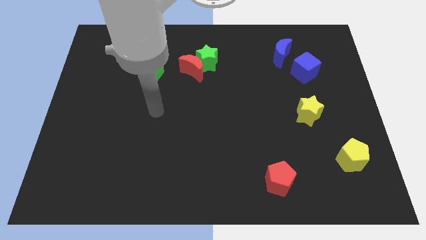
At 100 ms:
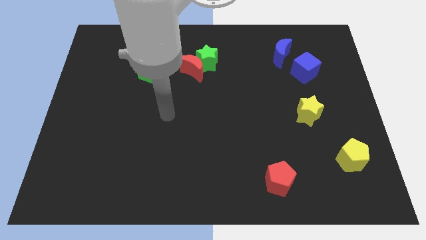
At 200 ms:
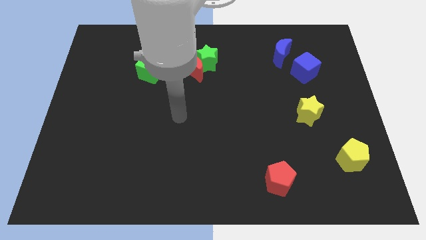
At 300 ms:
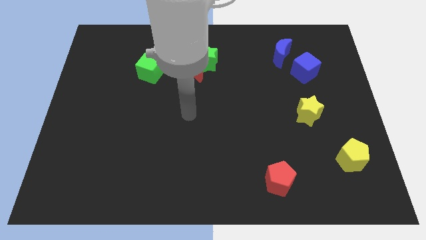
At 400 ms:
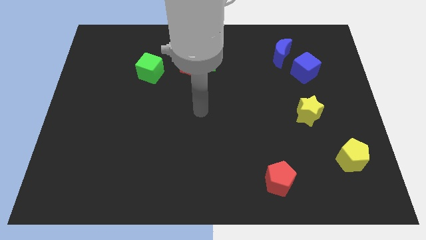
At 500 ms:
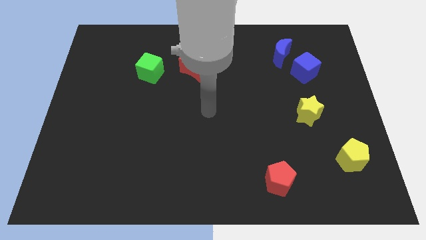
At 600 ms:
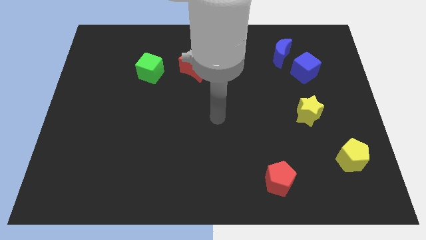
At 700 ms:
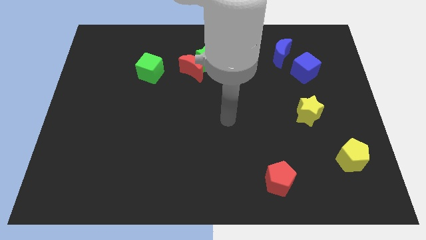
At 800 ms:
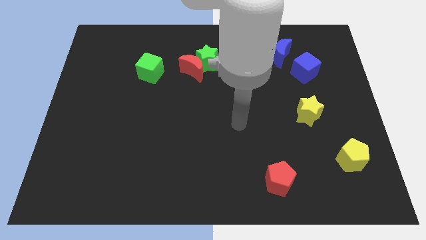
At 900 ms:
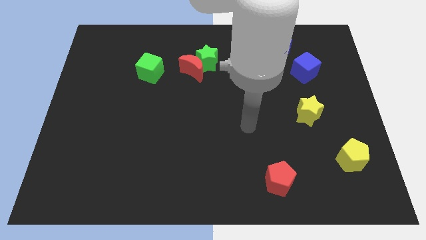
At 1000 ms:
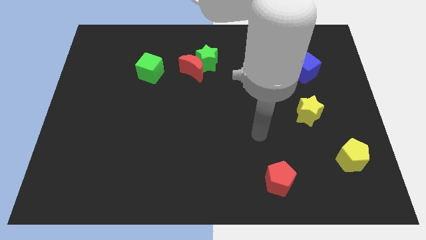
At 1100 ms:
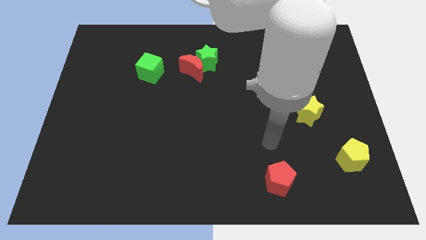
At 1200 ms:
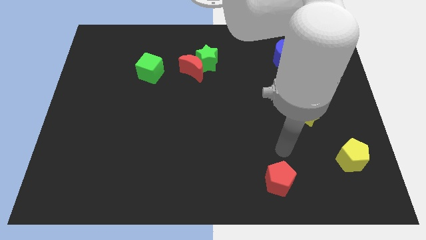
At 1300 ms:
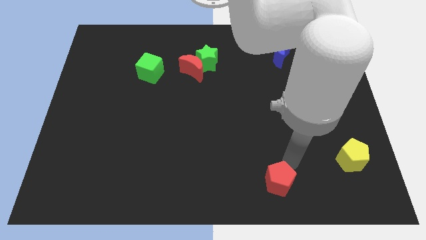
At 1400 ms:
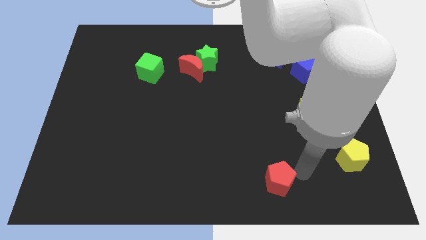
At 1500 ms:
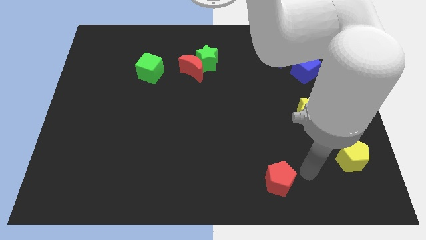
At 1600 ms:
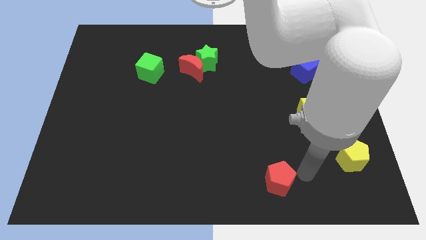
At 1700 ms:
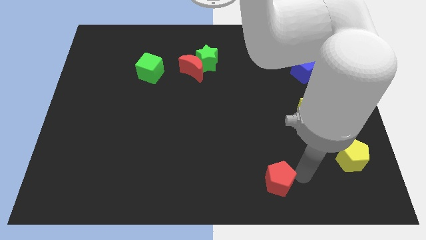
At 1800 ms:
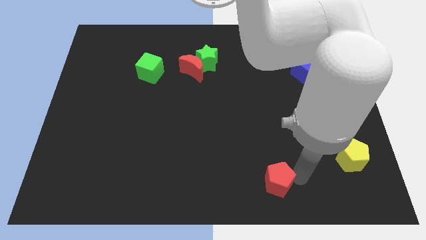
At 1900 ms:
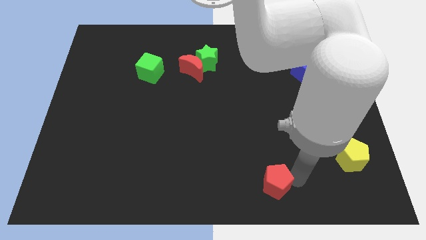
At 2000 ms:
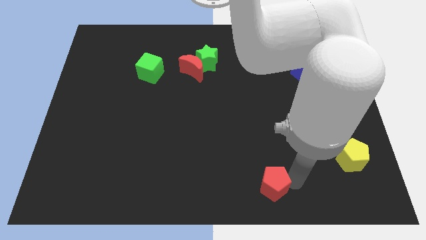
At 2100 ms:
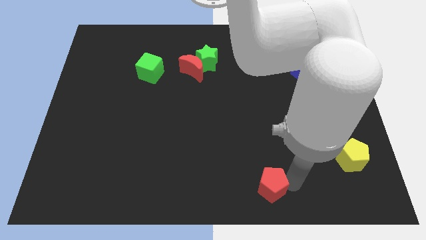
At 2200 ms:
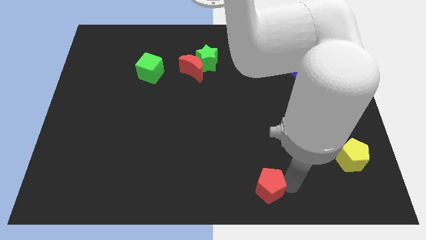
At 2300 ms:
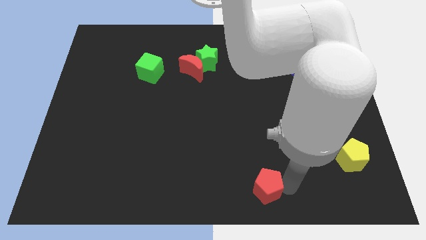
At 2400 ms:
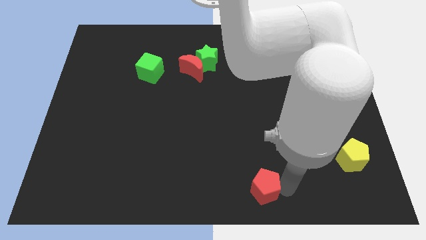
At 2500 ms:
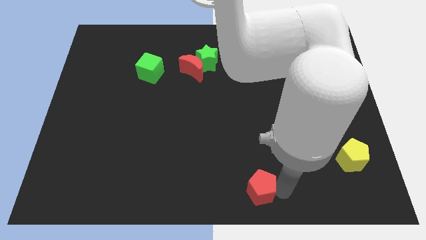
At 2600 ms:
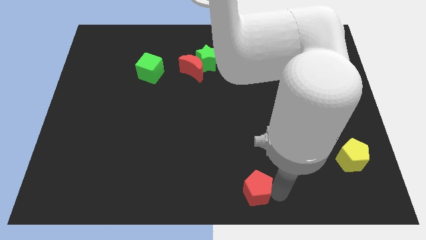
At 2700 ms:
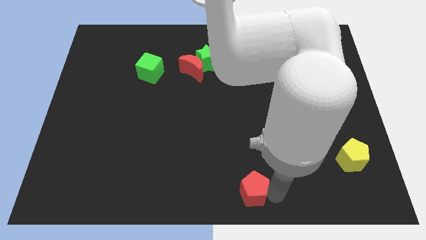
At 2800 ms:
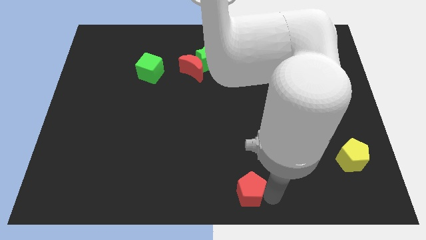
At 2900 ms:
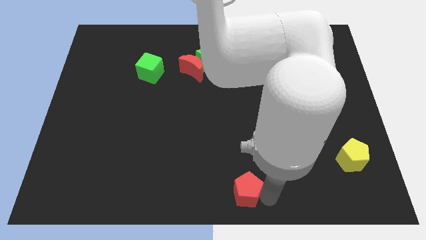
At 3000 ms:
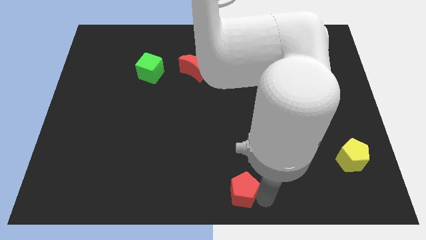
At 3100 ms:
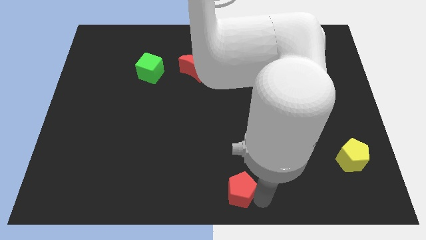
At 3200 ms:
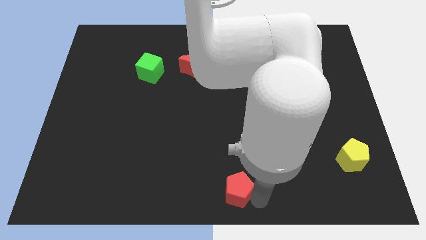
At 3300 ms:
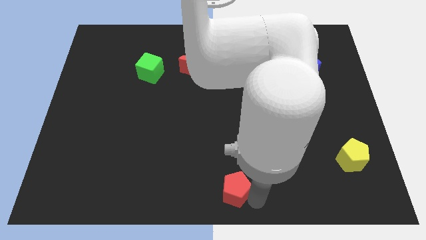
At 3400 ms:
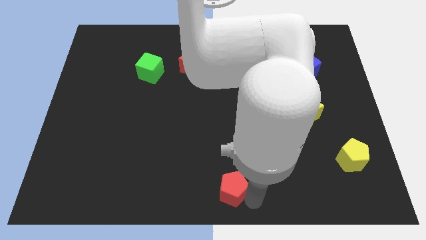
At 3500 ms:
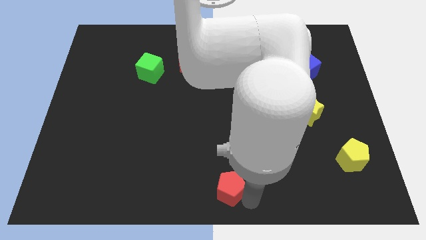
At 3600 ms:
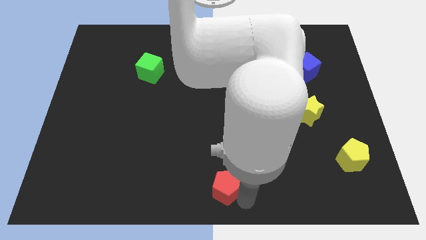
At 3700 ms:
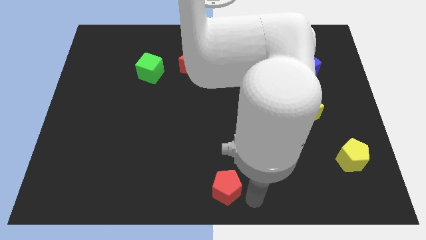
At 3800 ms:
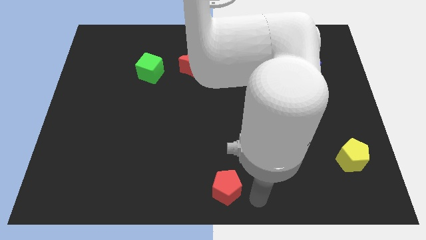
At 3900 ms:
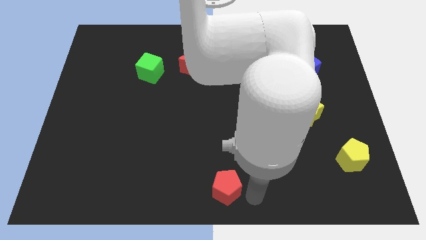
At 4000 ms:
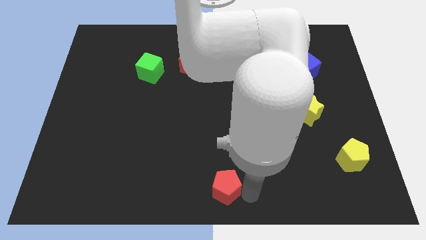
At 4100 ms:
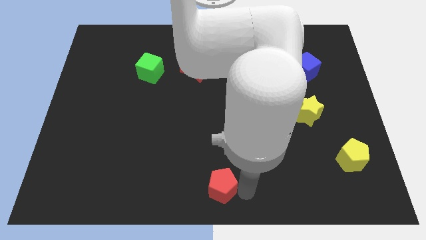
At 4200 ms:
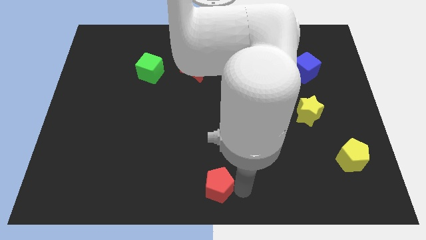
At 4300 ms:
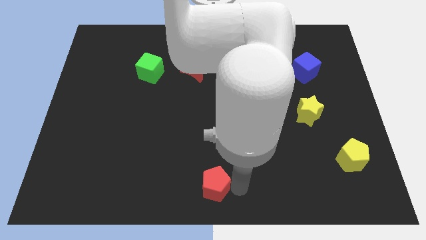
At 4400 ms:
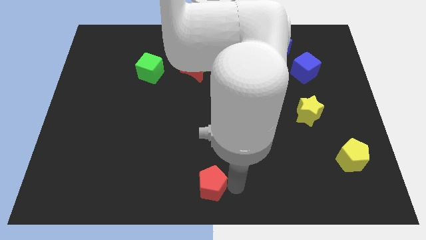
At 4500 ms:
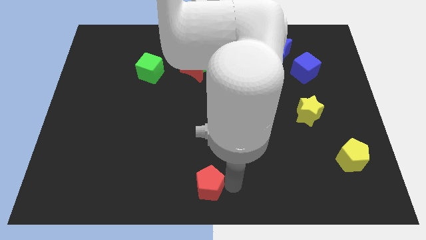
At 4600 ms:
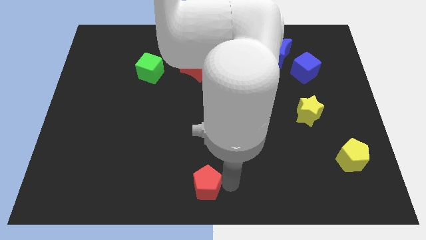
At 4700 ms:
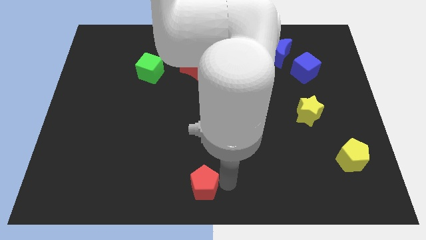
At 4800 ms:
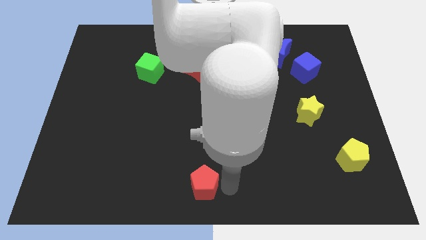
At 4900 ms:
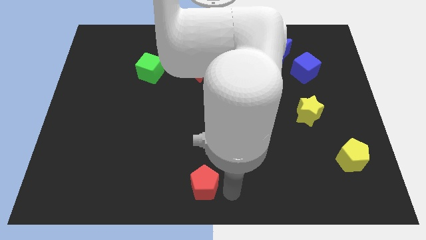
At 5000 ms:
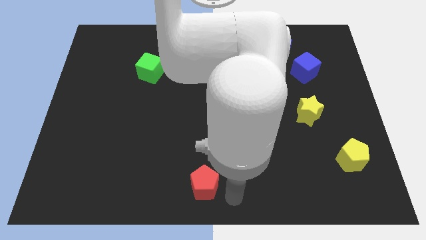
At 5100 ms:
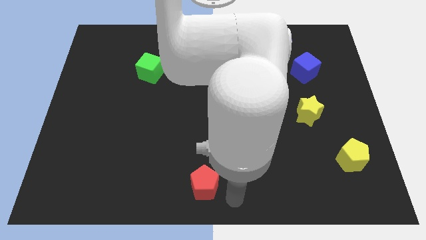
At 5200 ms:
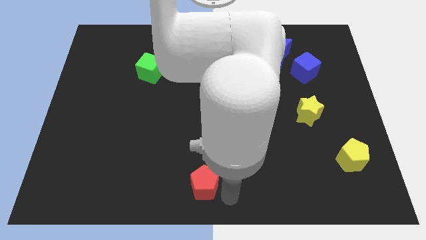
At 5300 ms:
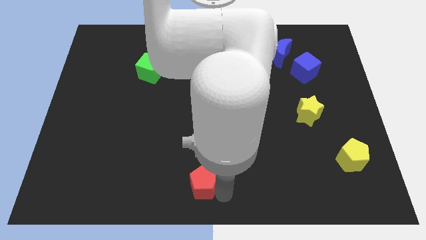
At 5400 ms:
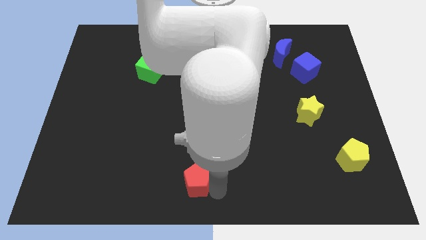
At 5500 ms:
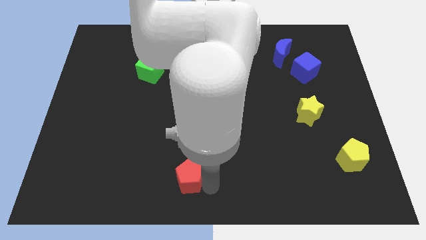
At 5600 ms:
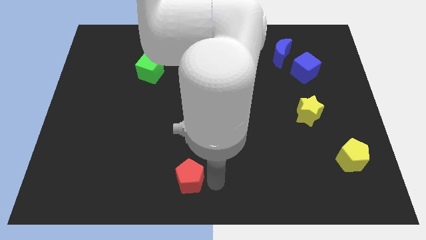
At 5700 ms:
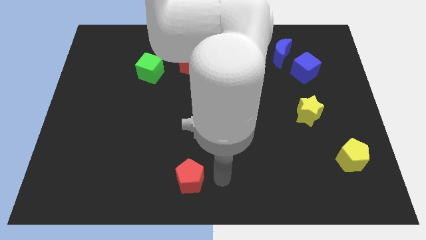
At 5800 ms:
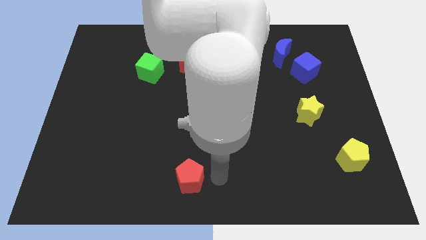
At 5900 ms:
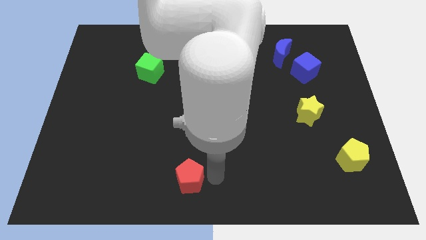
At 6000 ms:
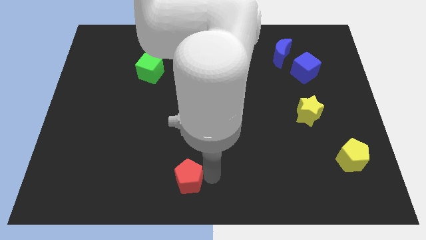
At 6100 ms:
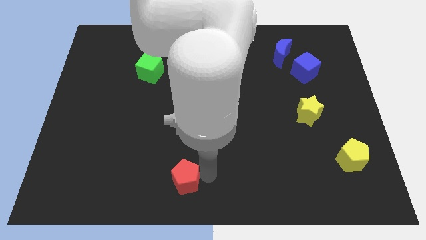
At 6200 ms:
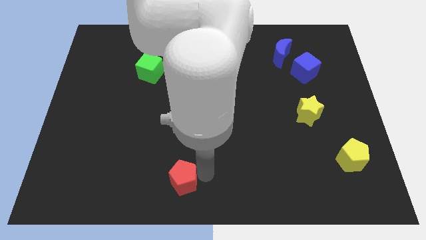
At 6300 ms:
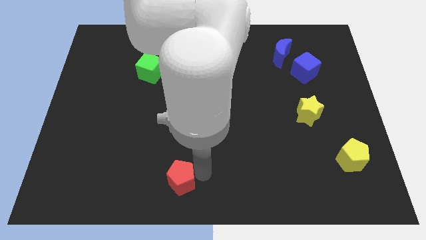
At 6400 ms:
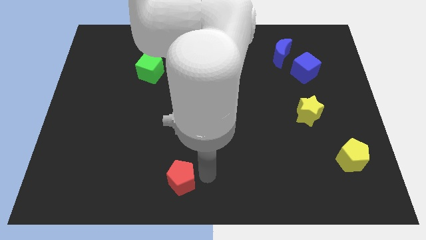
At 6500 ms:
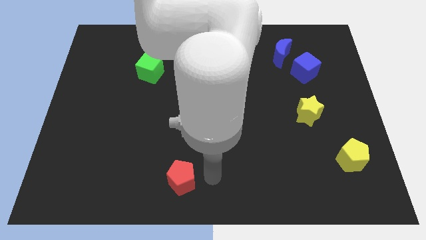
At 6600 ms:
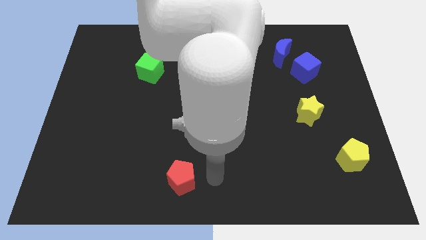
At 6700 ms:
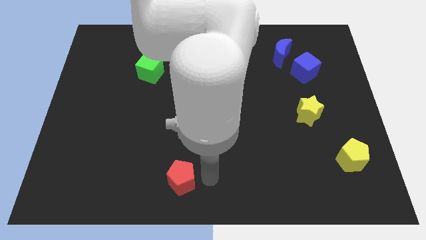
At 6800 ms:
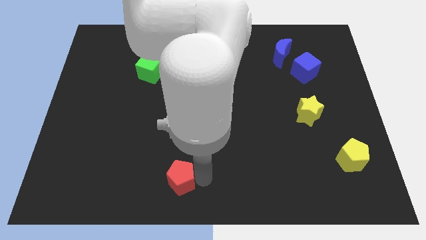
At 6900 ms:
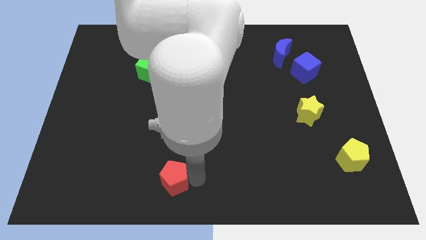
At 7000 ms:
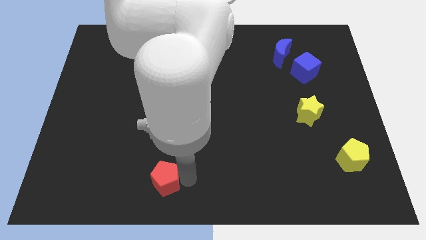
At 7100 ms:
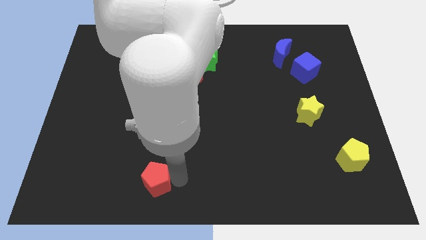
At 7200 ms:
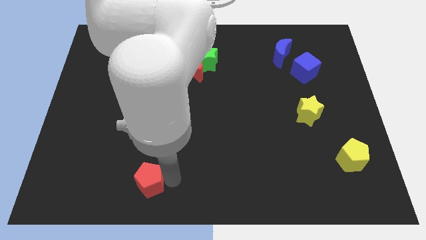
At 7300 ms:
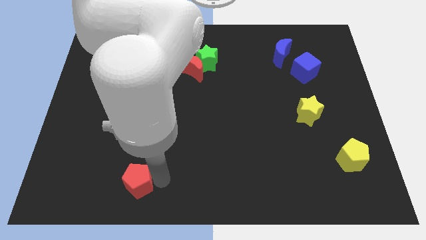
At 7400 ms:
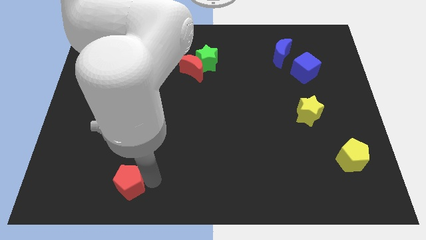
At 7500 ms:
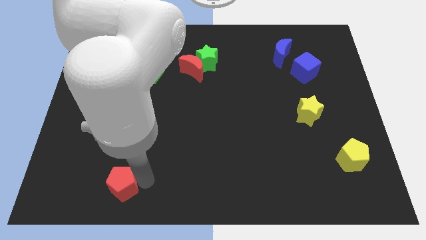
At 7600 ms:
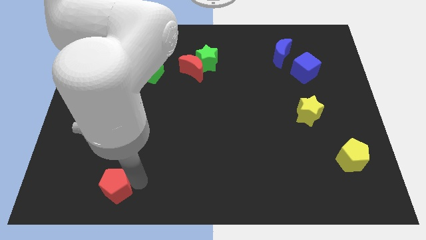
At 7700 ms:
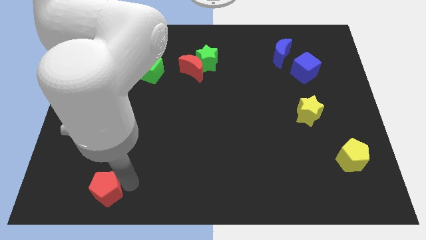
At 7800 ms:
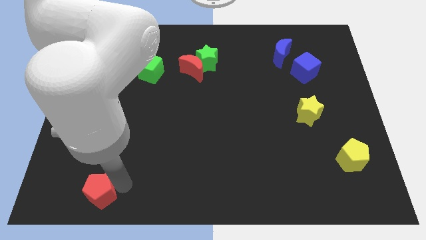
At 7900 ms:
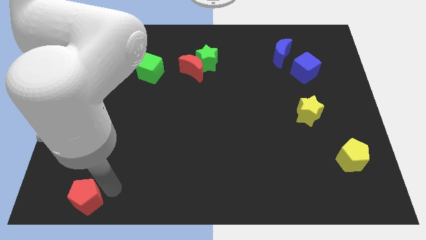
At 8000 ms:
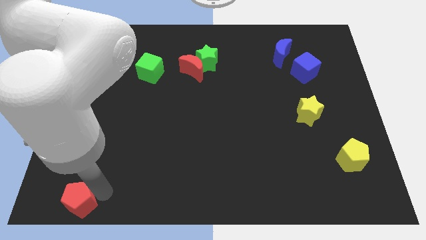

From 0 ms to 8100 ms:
push the red pentagon to the lower left corner
